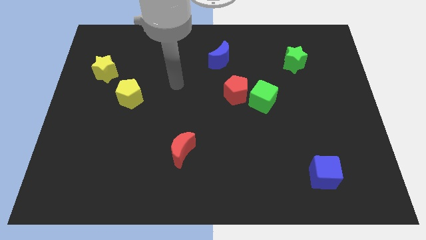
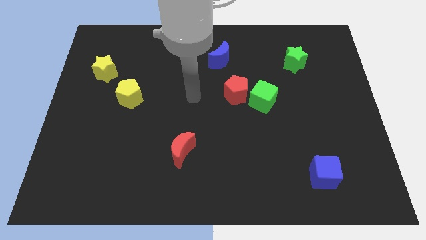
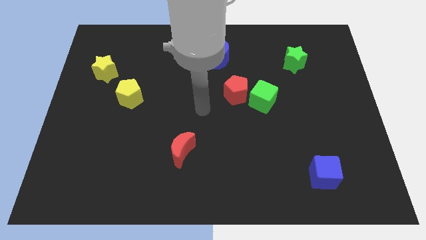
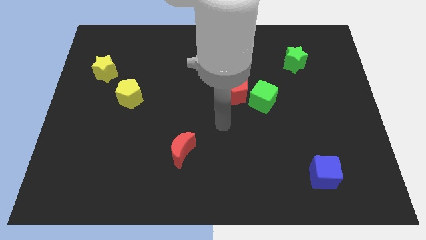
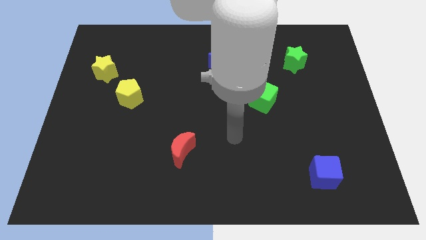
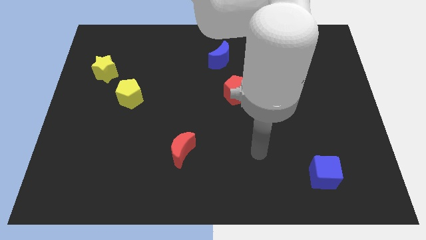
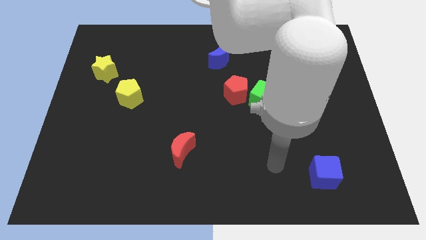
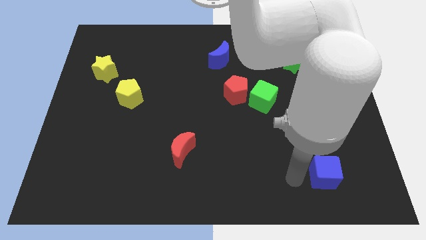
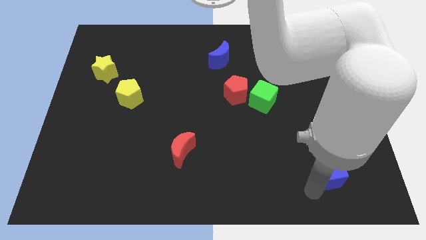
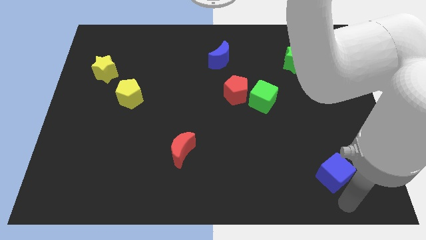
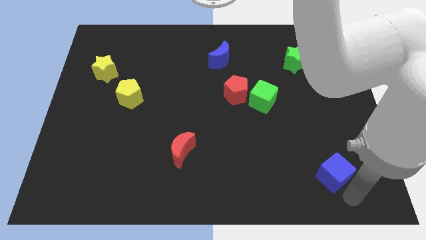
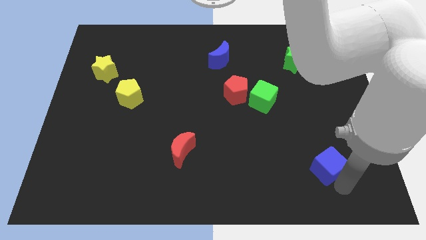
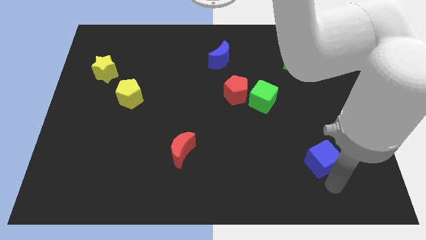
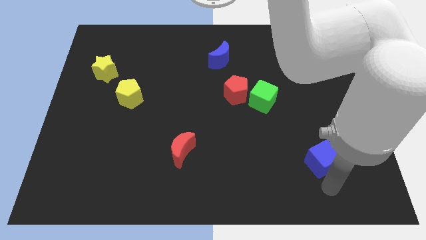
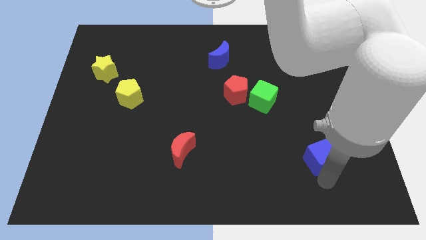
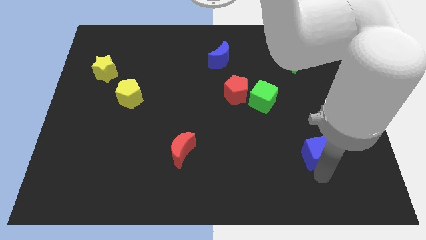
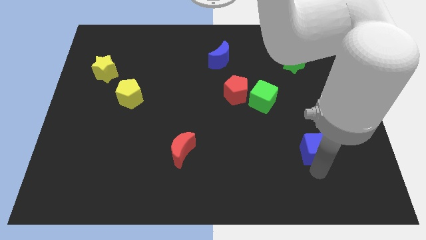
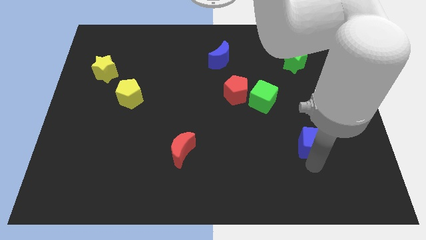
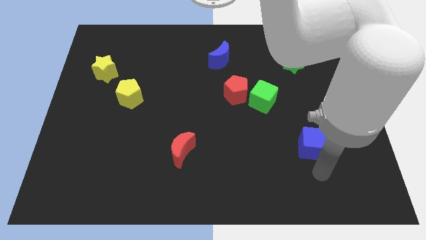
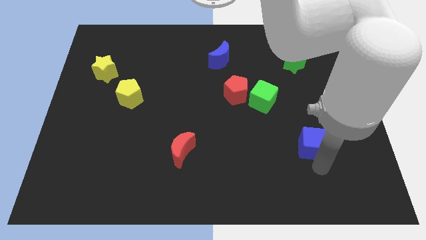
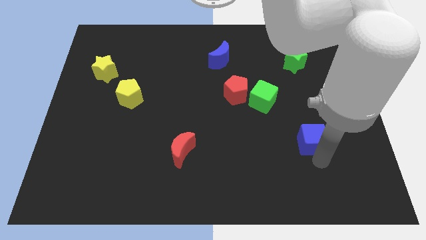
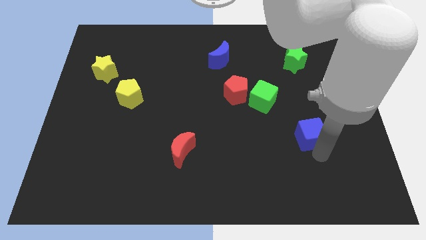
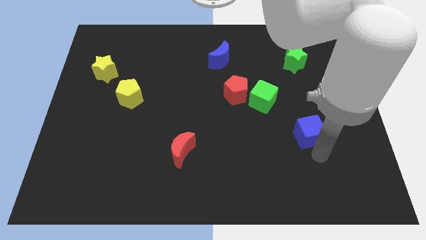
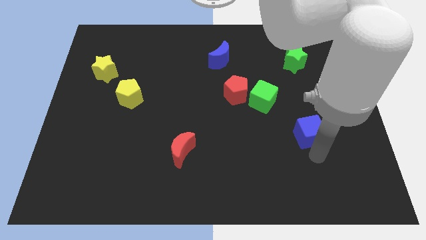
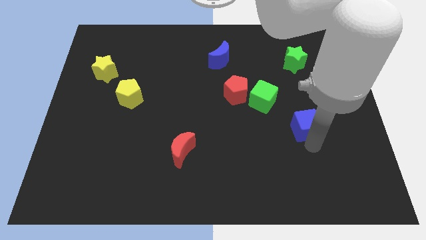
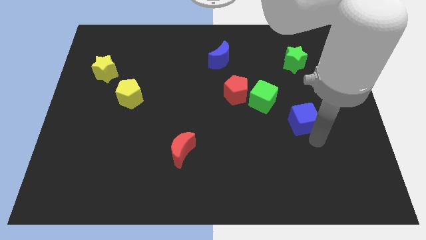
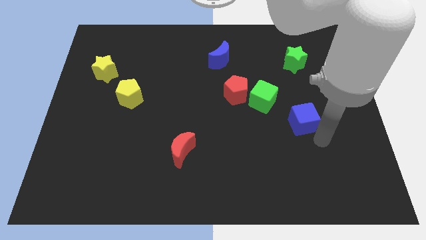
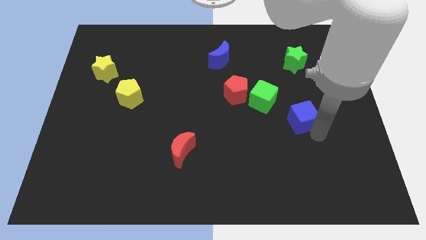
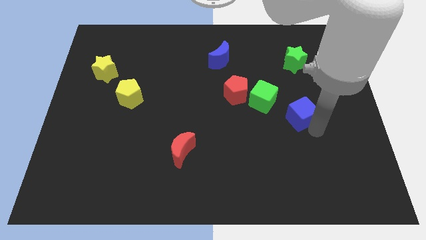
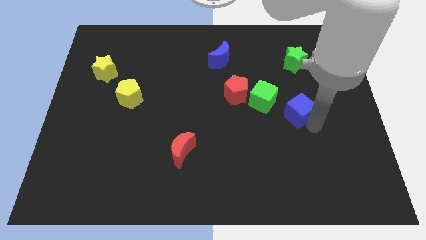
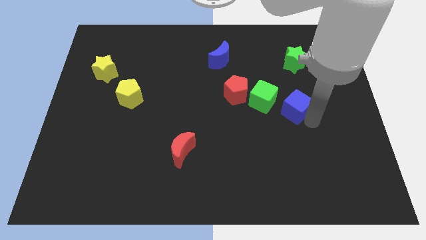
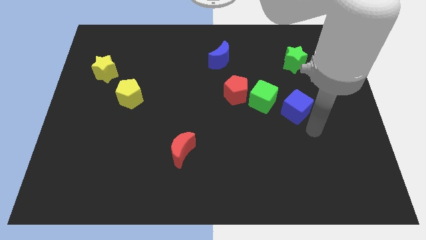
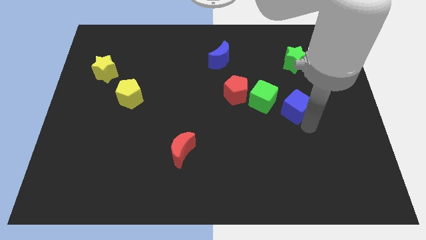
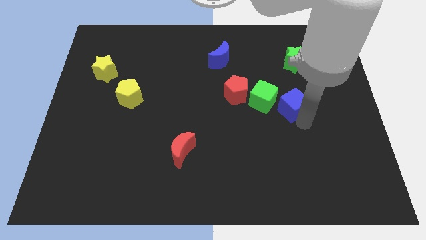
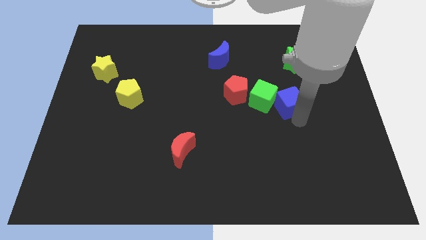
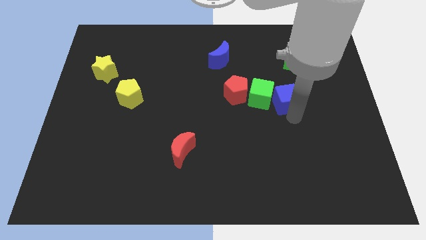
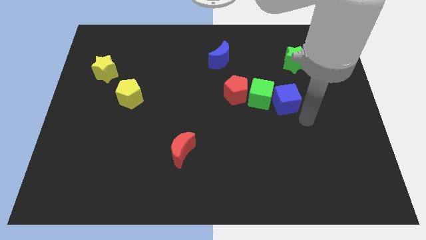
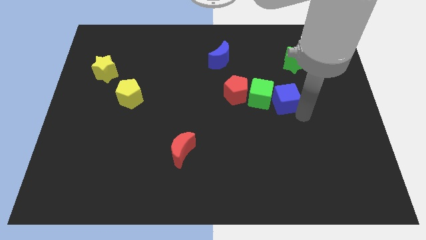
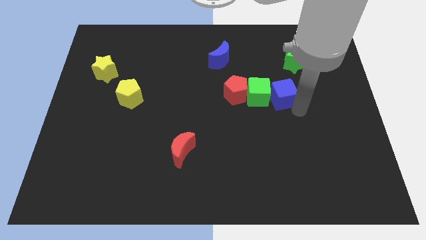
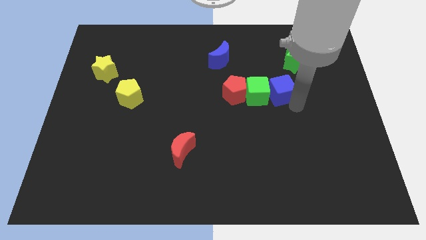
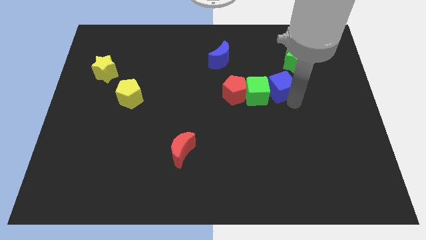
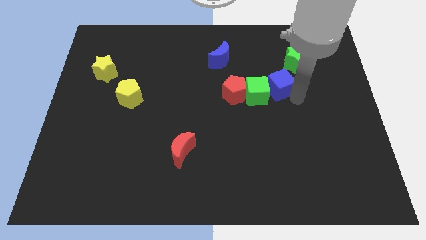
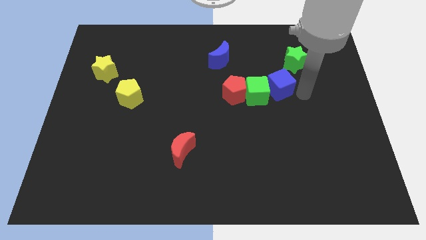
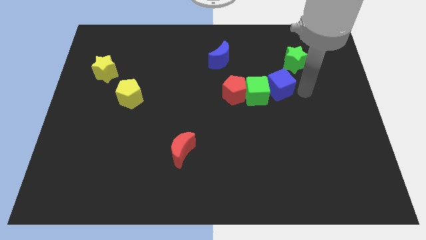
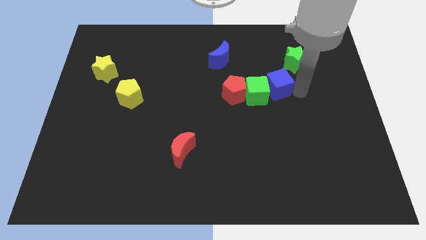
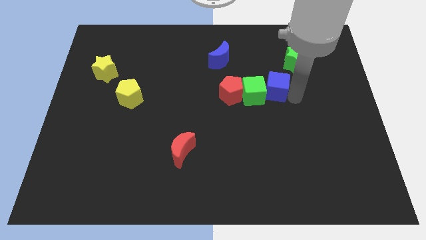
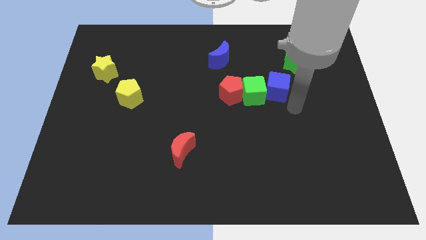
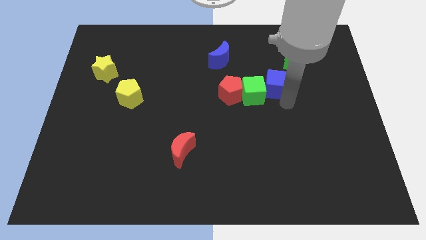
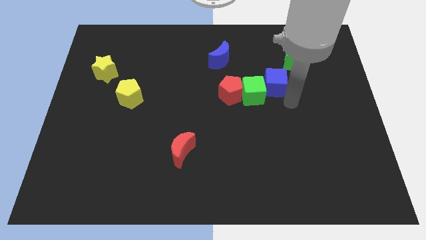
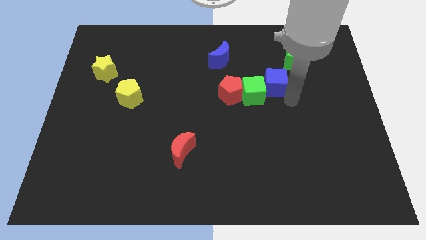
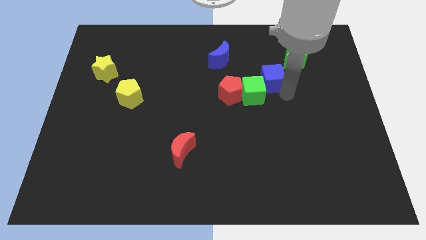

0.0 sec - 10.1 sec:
push the blue cube to the top side of the green cube

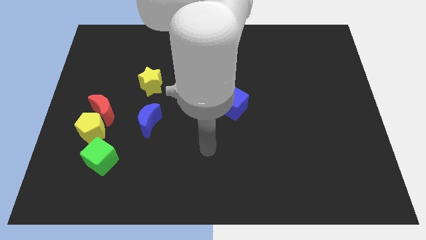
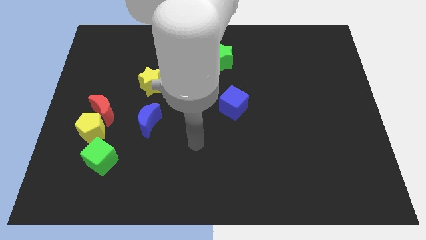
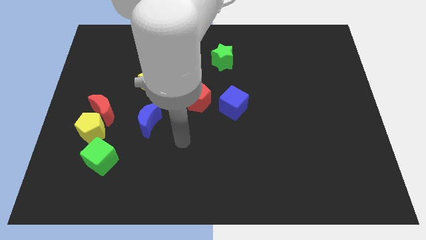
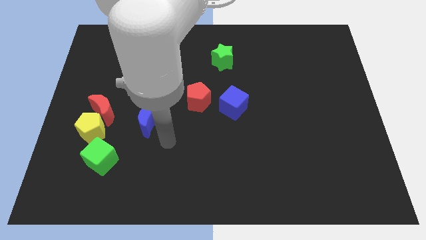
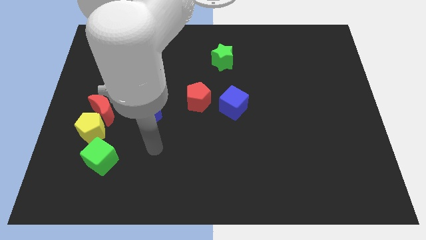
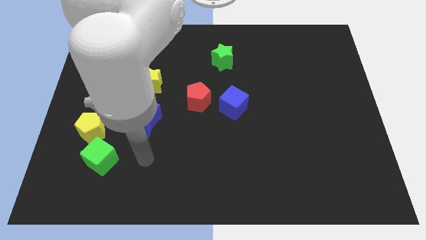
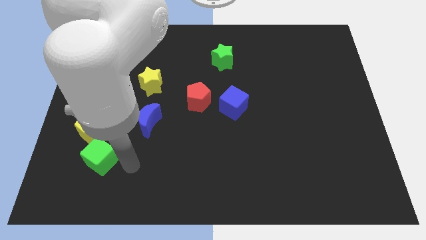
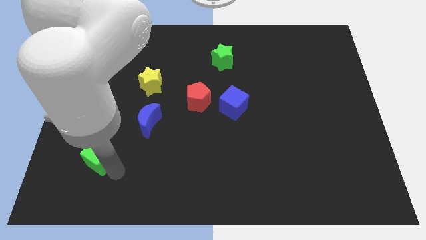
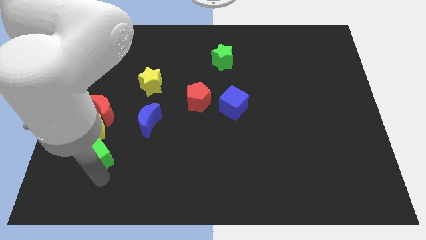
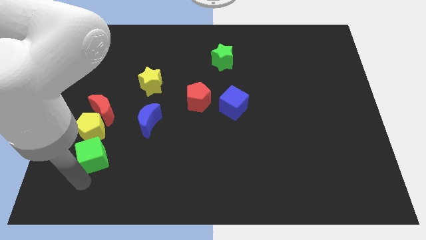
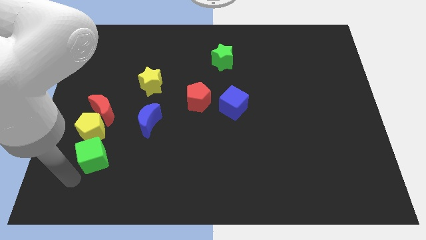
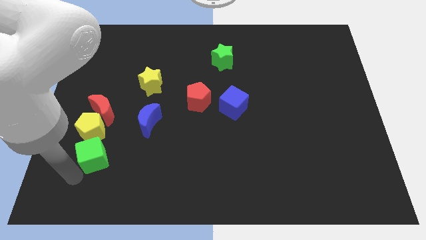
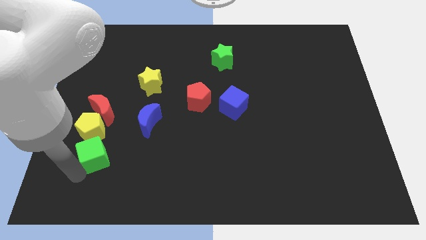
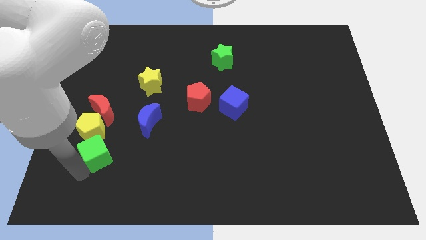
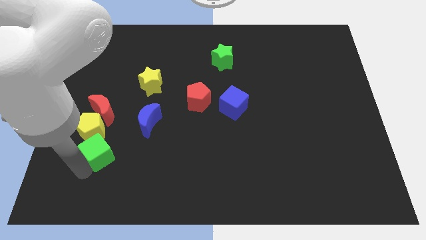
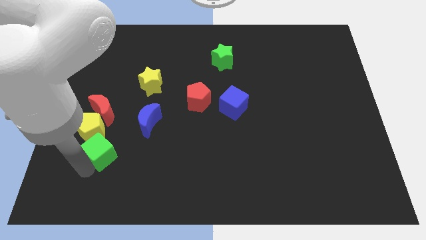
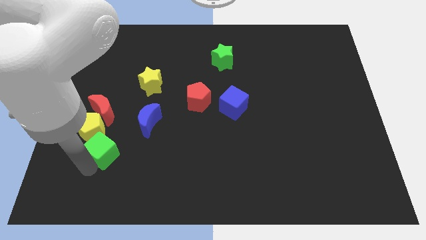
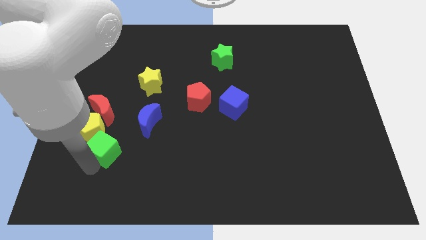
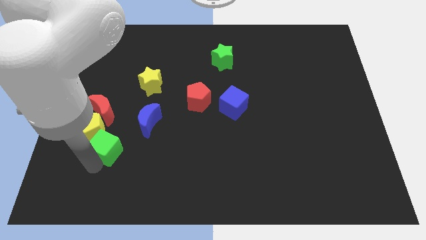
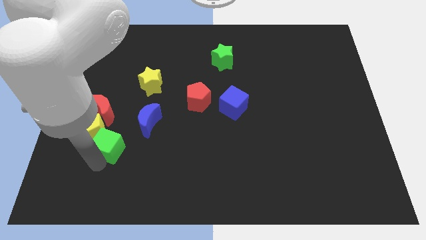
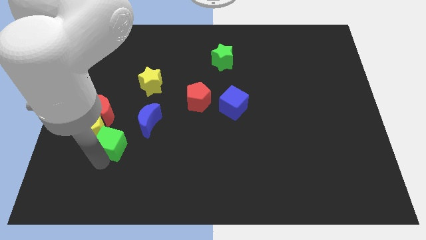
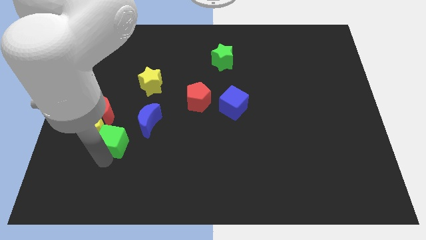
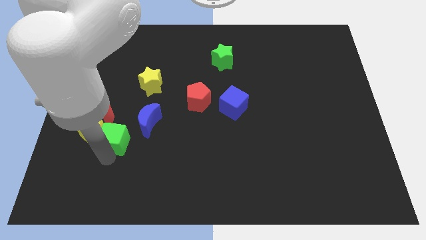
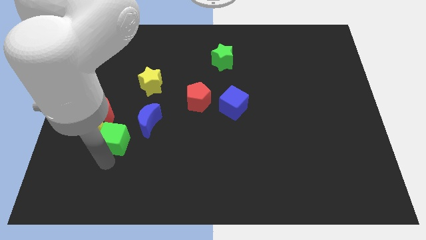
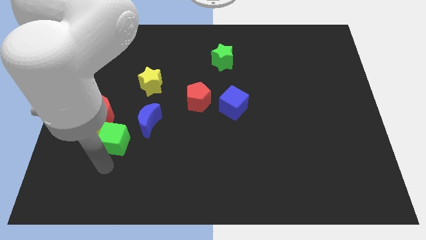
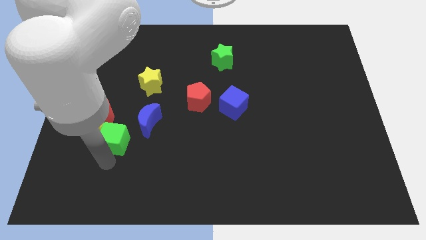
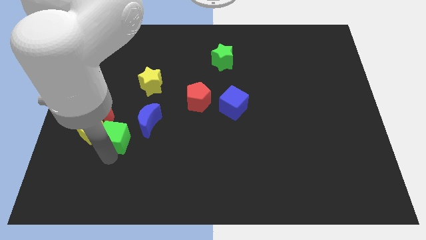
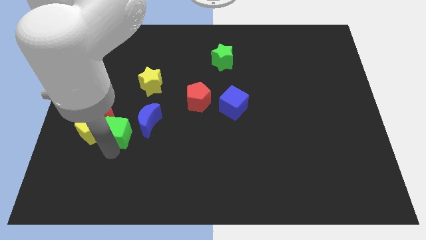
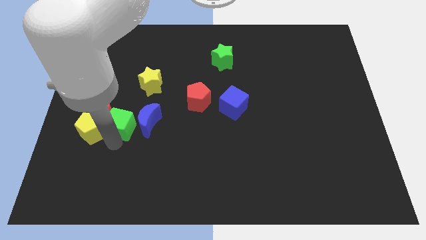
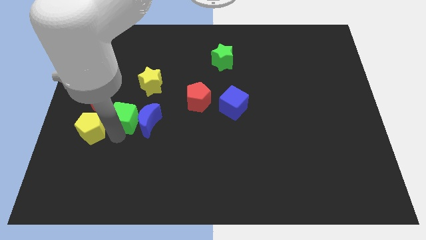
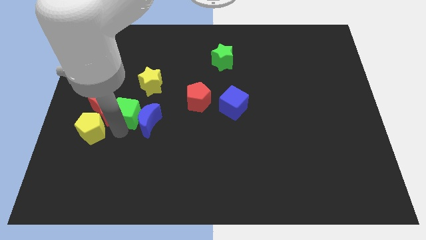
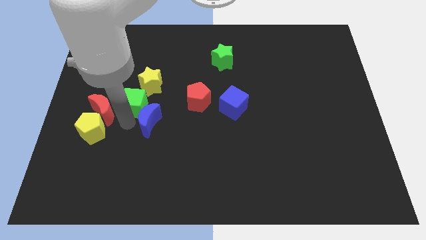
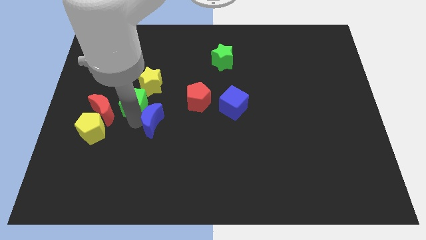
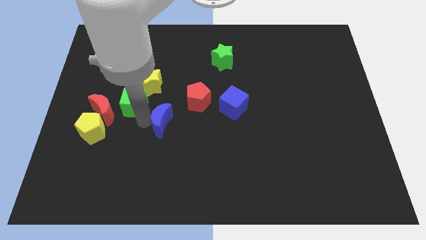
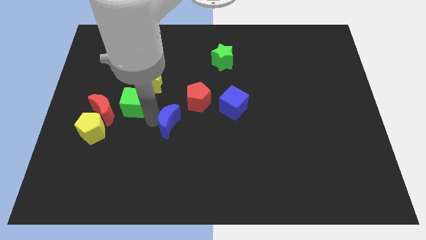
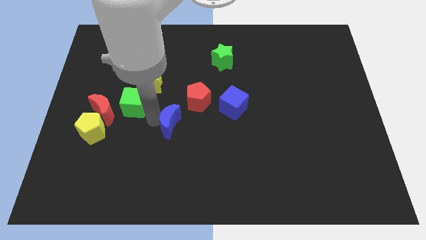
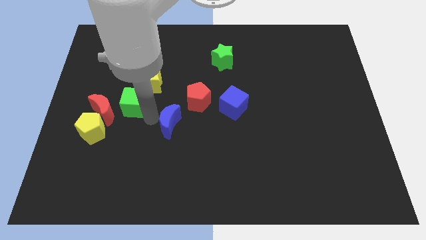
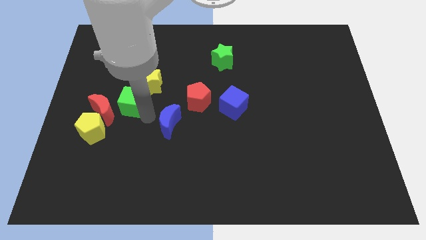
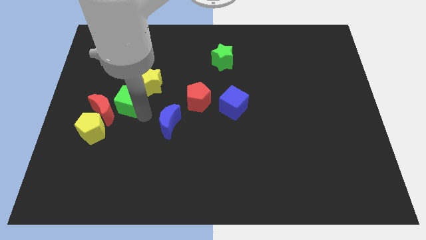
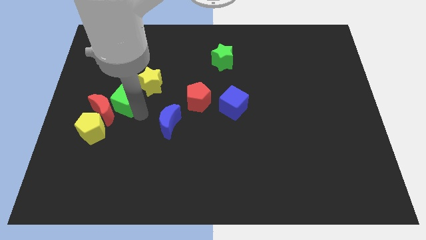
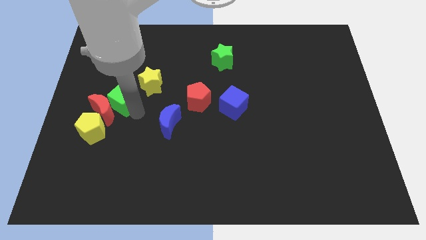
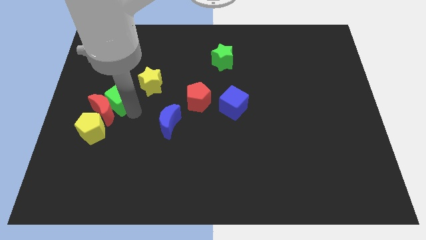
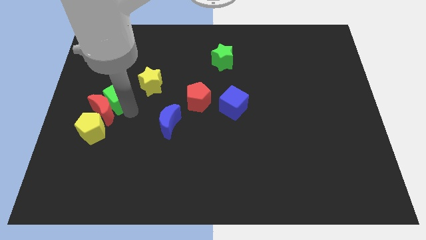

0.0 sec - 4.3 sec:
push the green cube to the left side of the yellow star
